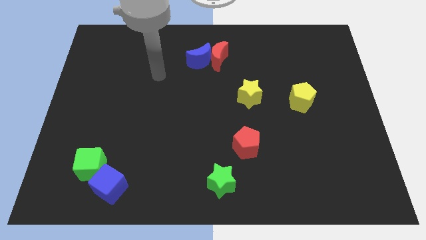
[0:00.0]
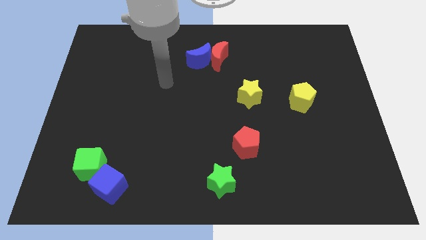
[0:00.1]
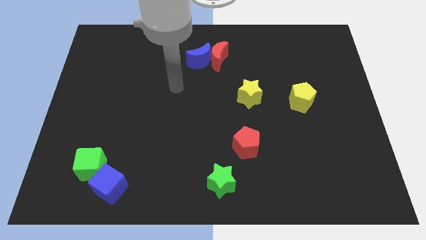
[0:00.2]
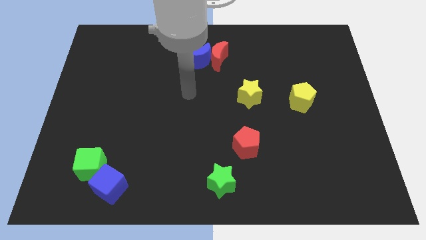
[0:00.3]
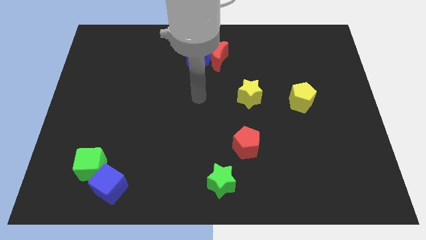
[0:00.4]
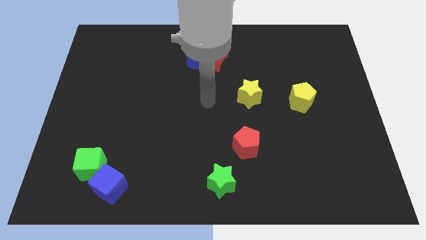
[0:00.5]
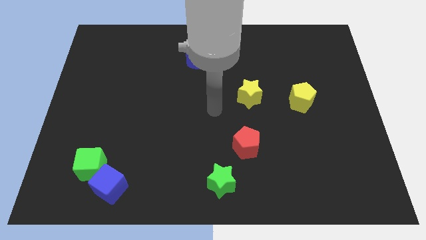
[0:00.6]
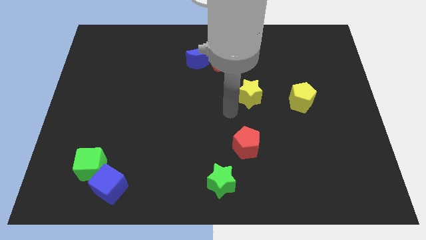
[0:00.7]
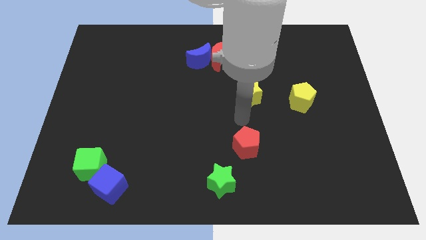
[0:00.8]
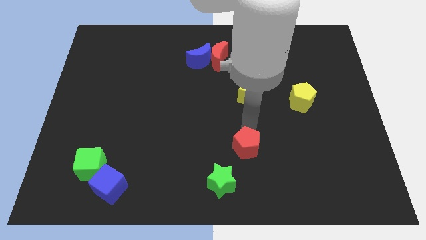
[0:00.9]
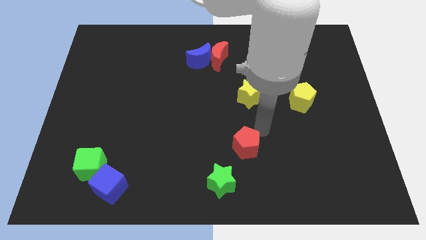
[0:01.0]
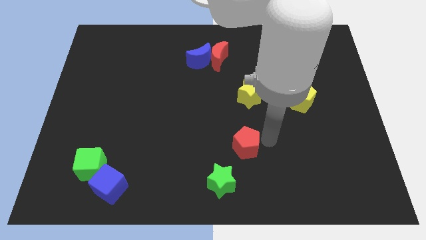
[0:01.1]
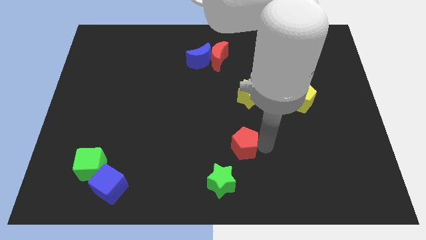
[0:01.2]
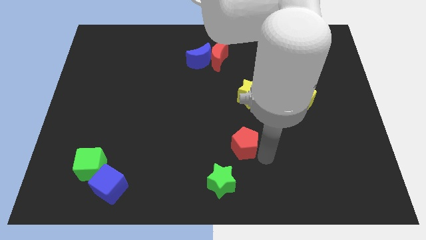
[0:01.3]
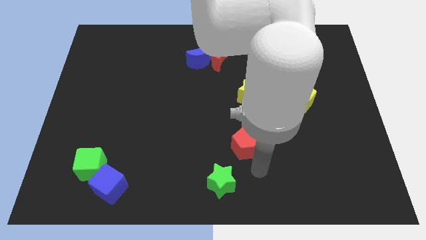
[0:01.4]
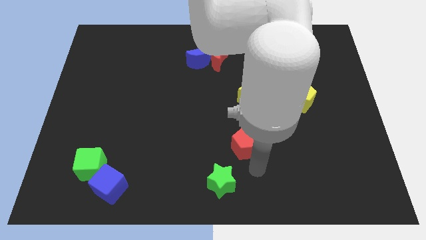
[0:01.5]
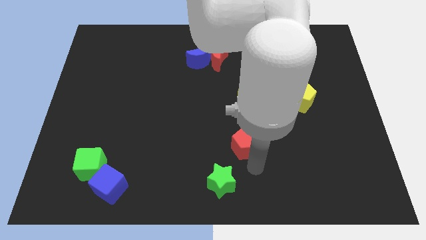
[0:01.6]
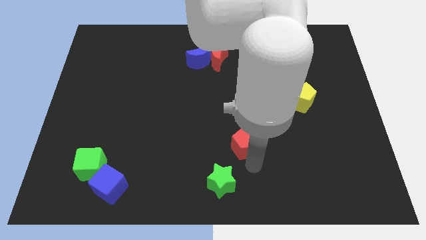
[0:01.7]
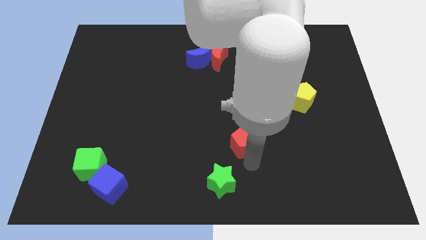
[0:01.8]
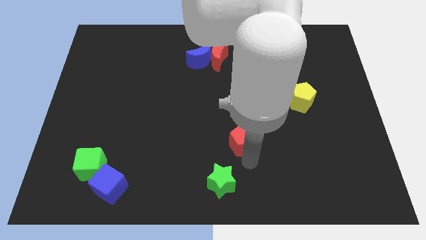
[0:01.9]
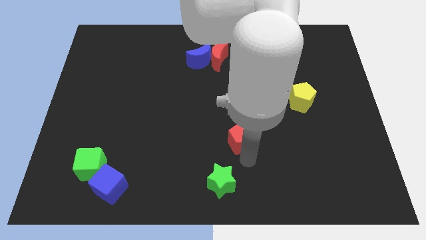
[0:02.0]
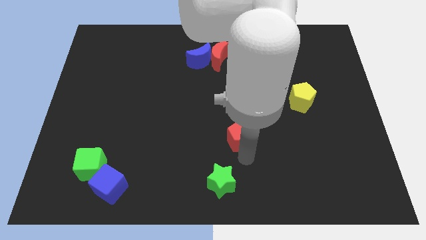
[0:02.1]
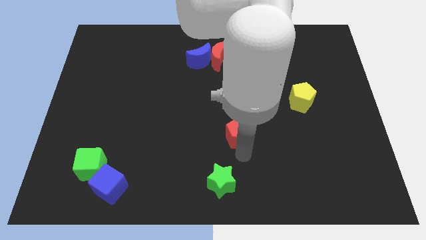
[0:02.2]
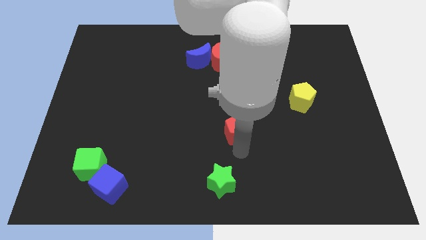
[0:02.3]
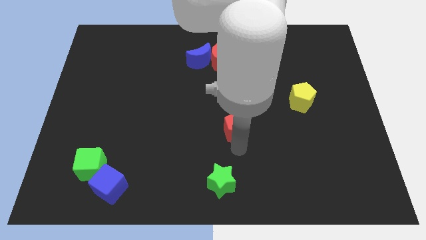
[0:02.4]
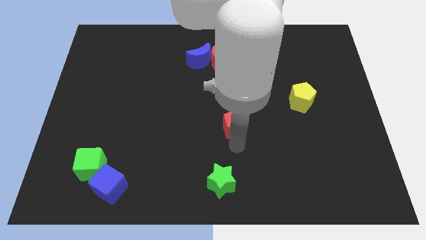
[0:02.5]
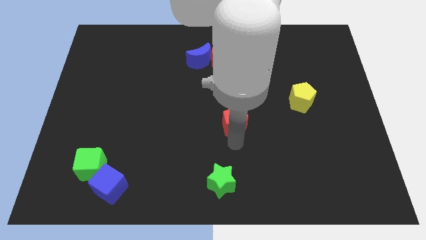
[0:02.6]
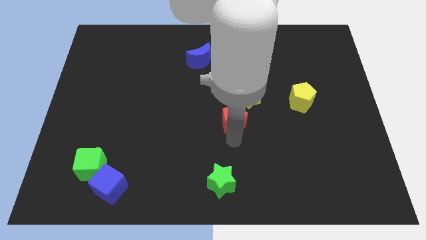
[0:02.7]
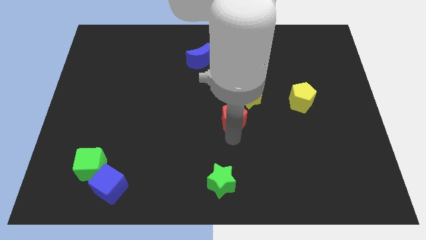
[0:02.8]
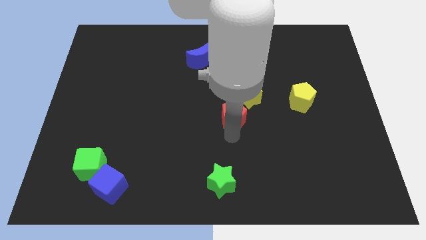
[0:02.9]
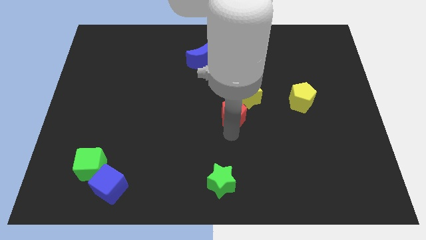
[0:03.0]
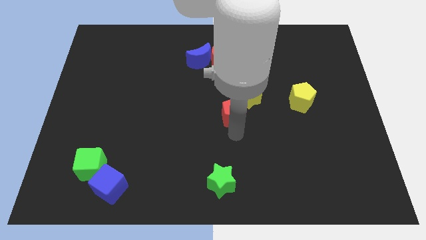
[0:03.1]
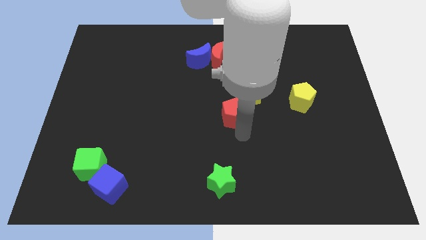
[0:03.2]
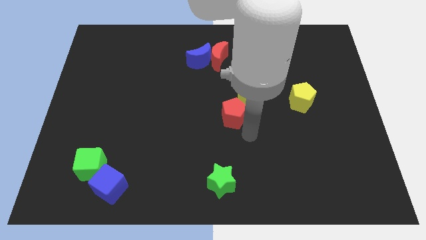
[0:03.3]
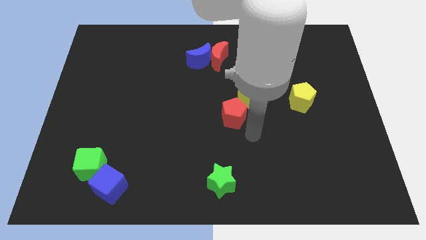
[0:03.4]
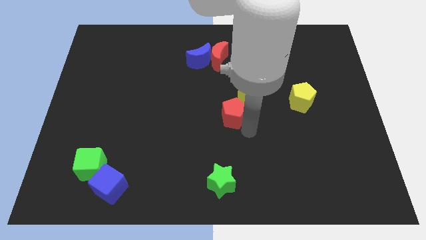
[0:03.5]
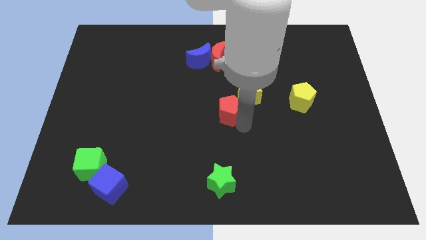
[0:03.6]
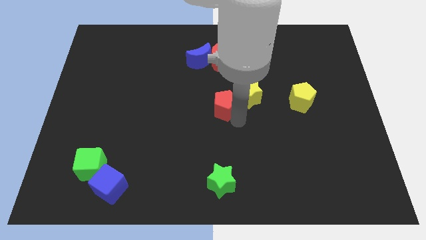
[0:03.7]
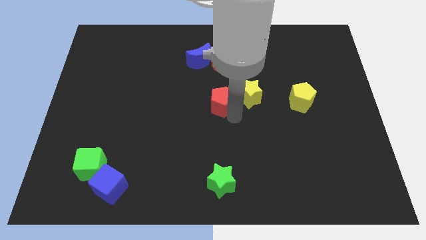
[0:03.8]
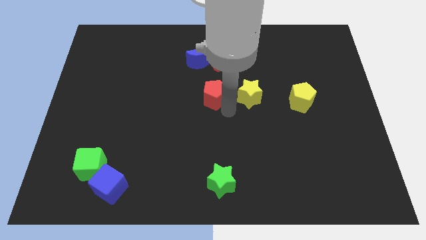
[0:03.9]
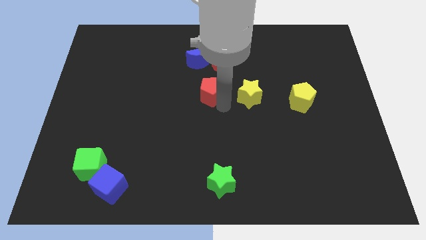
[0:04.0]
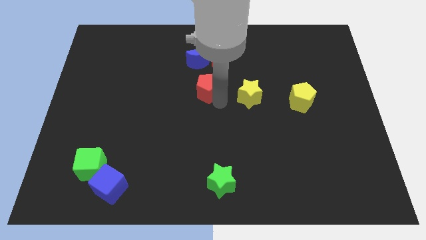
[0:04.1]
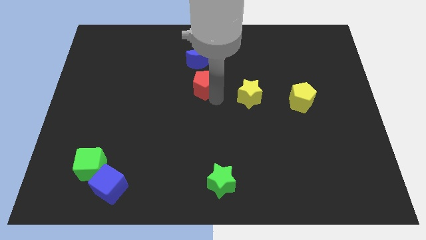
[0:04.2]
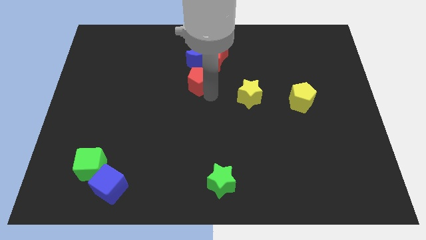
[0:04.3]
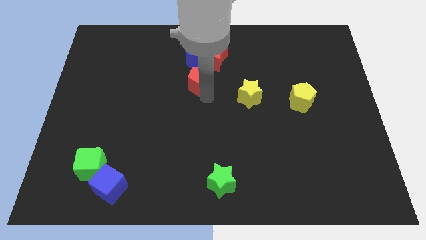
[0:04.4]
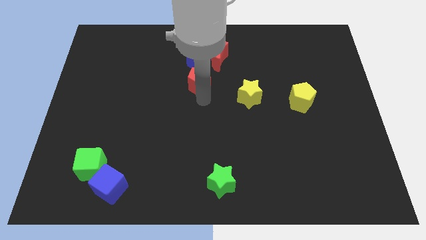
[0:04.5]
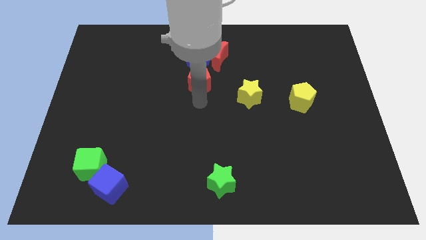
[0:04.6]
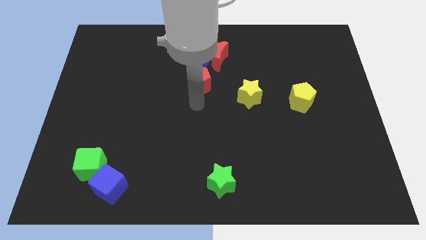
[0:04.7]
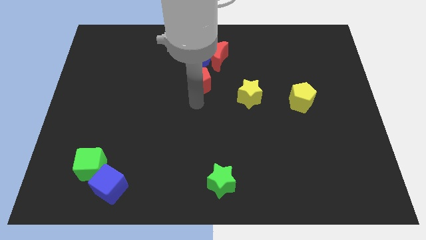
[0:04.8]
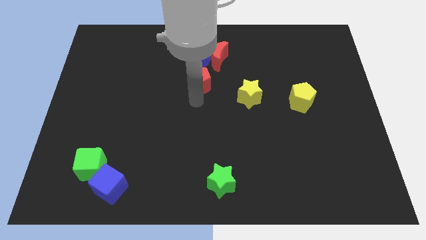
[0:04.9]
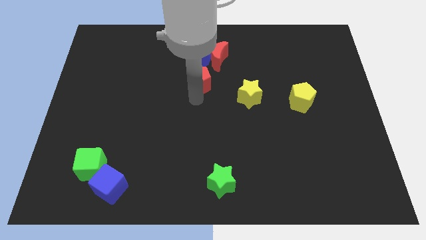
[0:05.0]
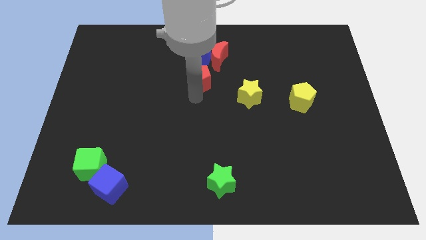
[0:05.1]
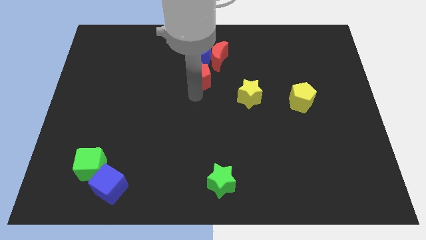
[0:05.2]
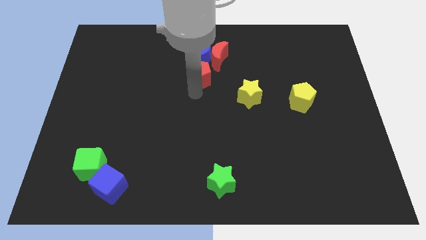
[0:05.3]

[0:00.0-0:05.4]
put the red pentagon close to the blue moon

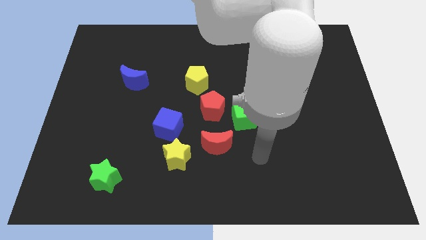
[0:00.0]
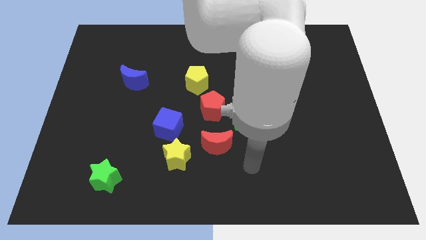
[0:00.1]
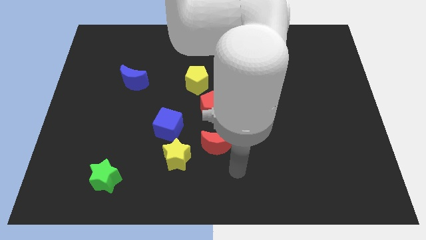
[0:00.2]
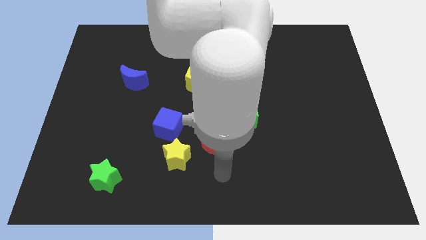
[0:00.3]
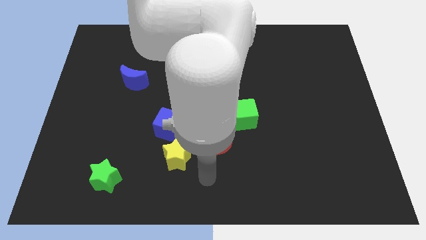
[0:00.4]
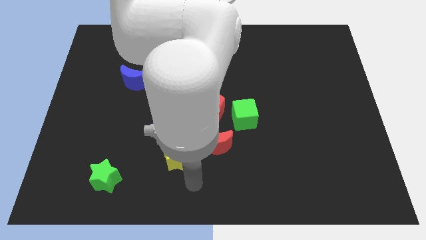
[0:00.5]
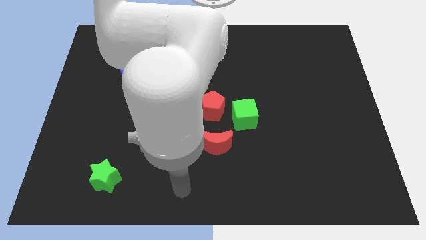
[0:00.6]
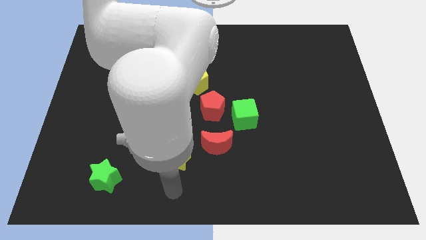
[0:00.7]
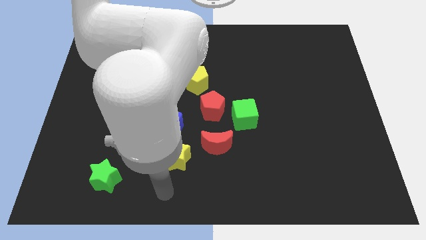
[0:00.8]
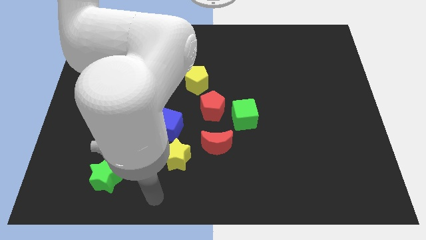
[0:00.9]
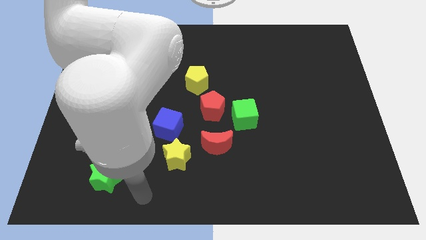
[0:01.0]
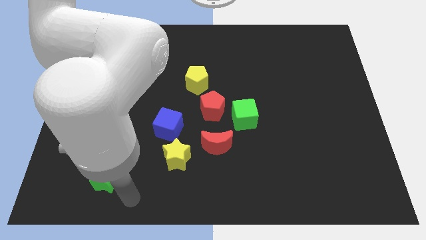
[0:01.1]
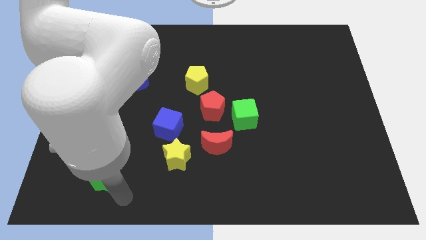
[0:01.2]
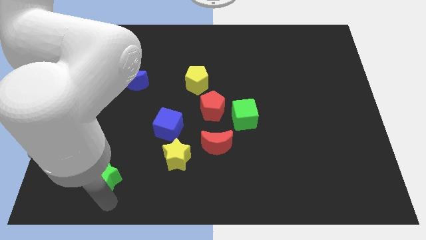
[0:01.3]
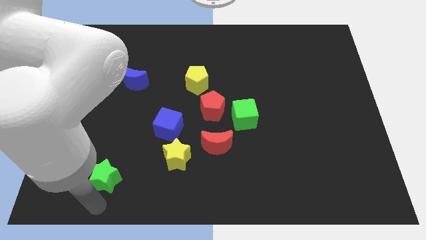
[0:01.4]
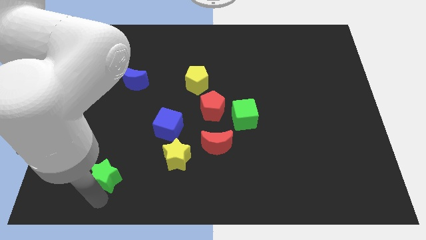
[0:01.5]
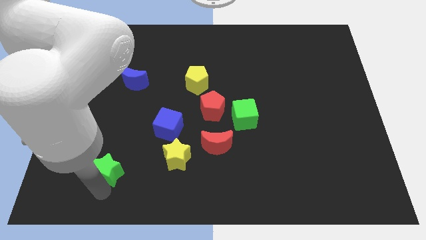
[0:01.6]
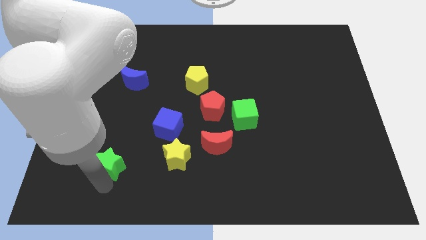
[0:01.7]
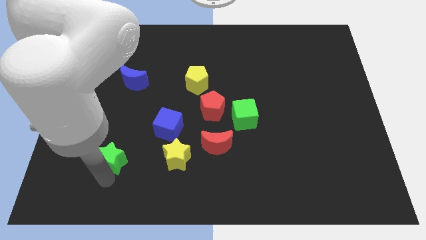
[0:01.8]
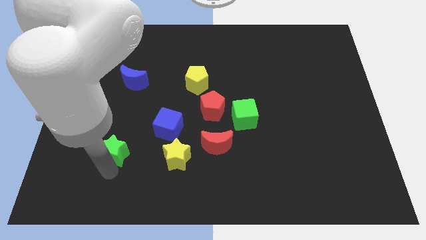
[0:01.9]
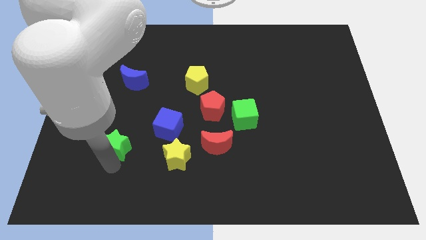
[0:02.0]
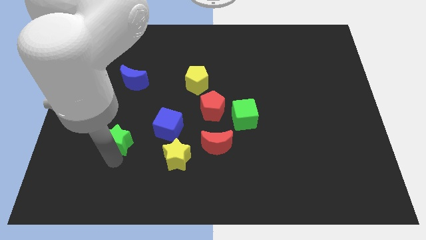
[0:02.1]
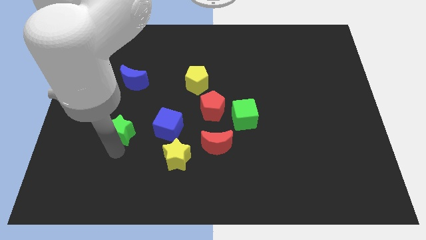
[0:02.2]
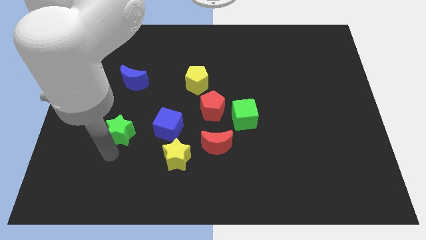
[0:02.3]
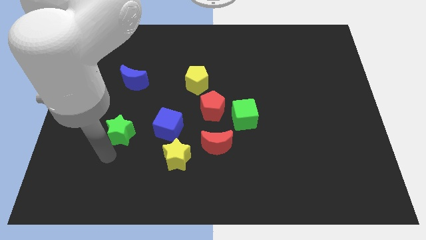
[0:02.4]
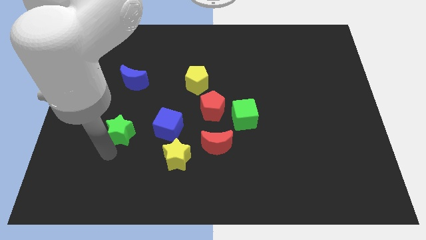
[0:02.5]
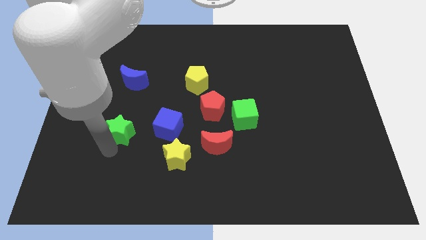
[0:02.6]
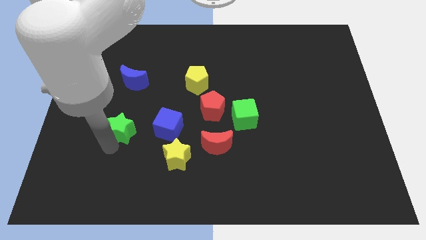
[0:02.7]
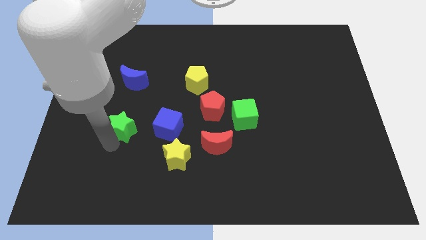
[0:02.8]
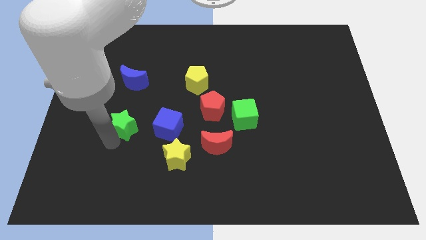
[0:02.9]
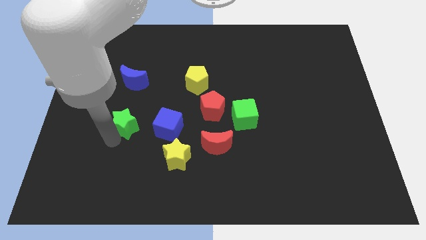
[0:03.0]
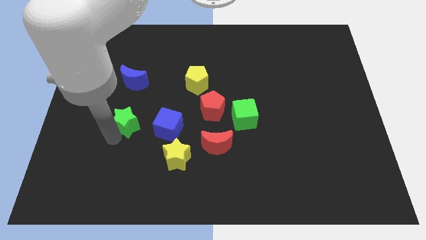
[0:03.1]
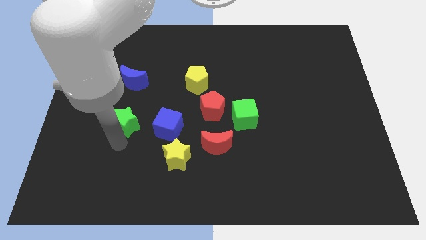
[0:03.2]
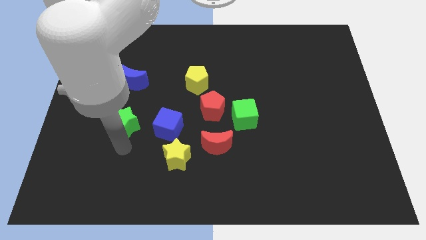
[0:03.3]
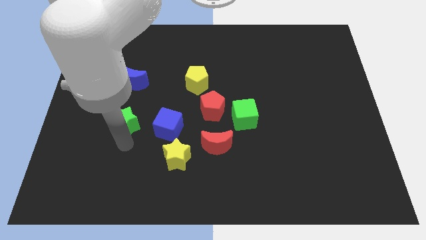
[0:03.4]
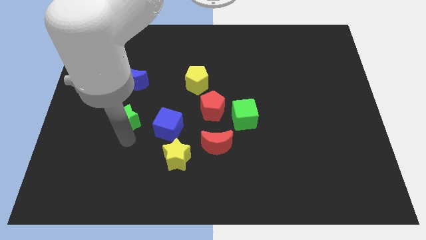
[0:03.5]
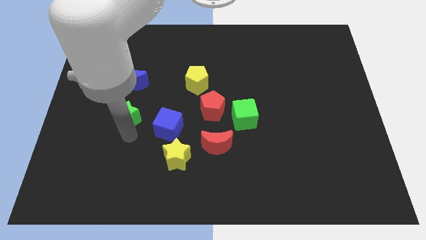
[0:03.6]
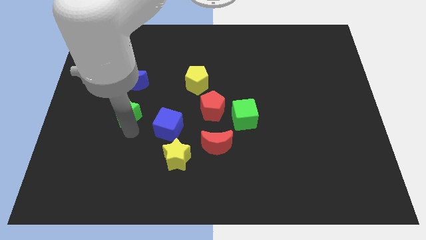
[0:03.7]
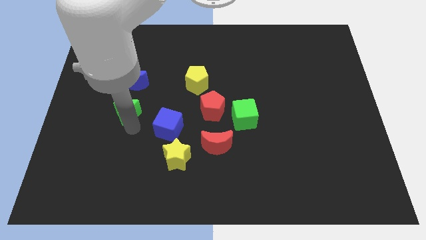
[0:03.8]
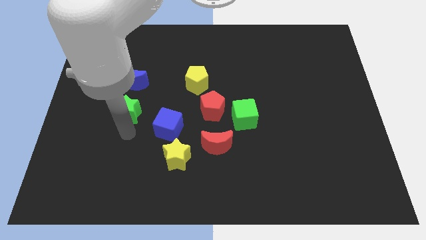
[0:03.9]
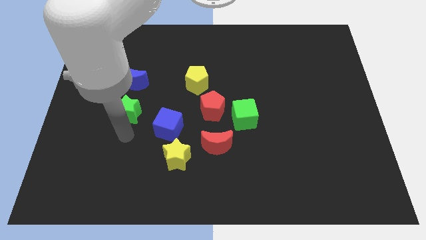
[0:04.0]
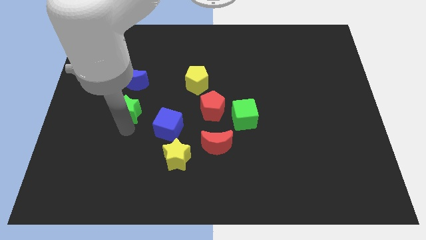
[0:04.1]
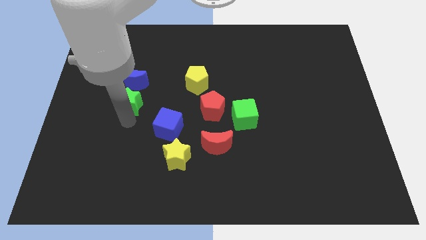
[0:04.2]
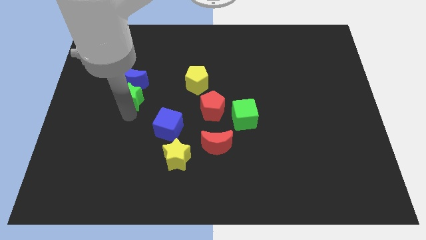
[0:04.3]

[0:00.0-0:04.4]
move the green star close to the blue moon
